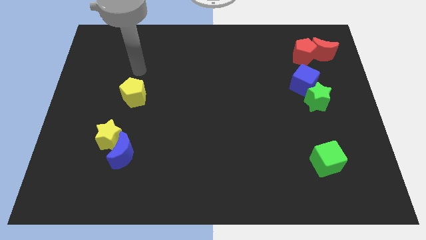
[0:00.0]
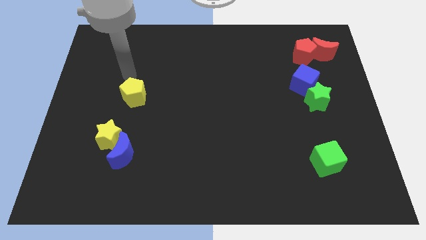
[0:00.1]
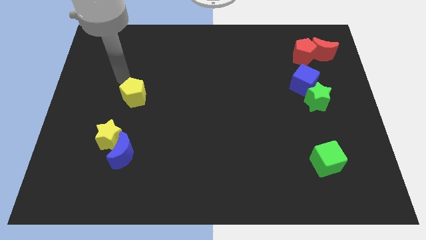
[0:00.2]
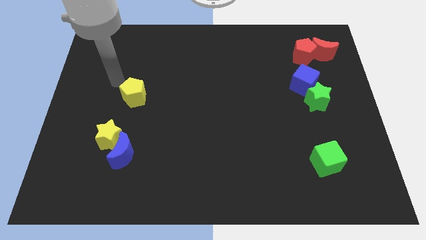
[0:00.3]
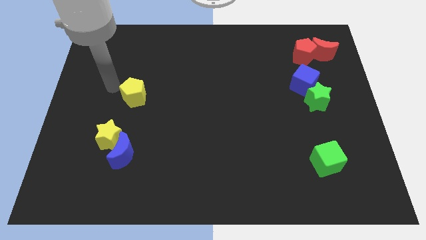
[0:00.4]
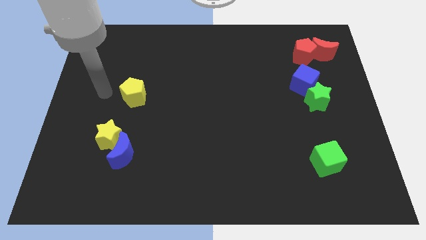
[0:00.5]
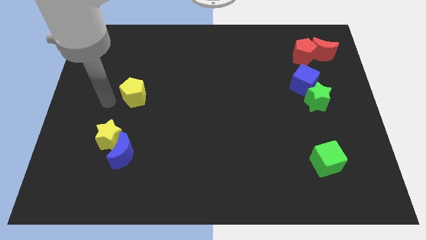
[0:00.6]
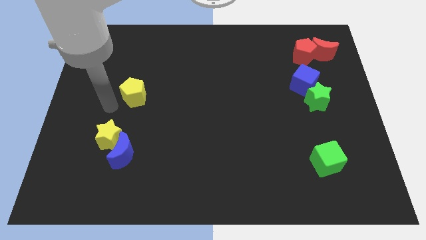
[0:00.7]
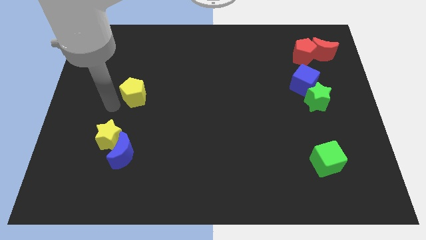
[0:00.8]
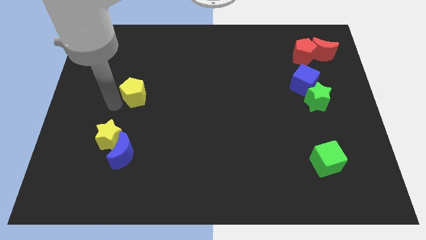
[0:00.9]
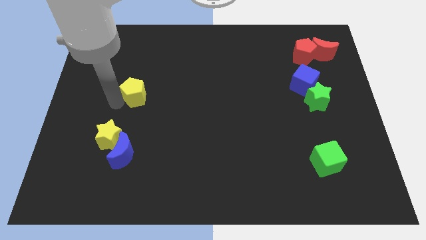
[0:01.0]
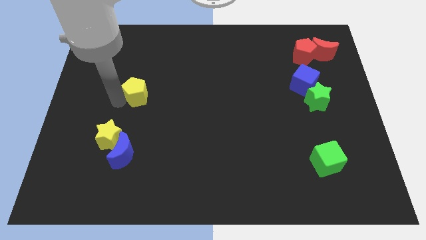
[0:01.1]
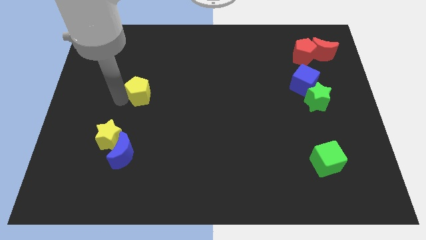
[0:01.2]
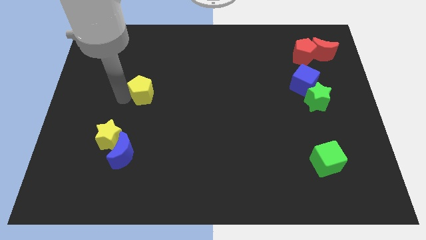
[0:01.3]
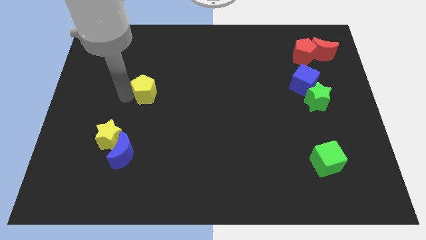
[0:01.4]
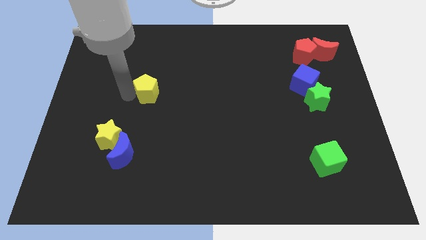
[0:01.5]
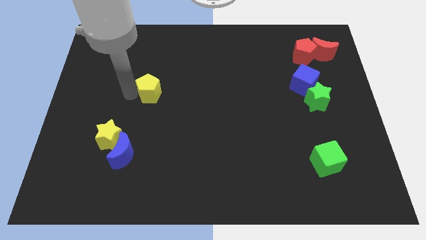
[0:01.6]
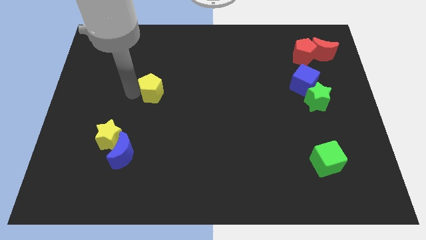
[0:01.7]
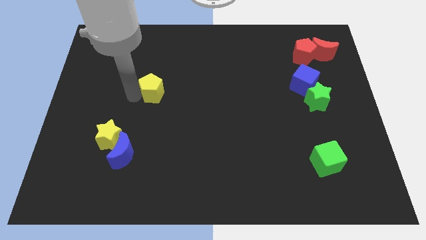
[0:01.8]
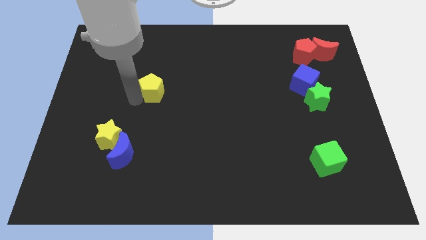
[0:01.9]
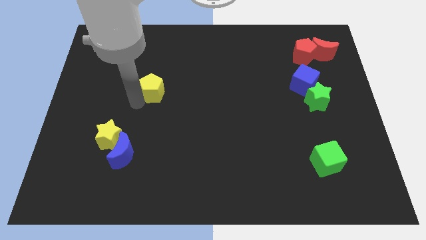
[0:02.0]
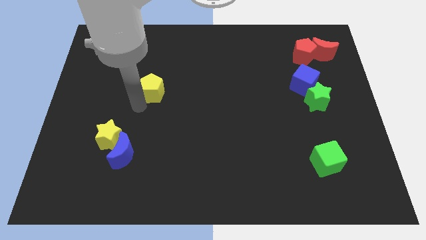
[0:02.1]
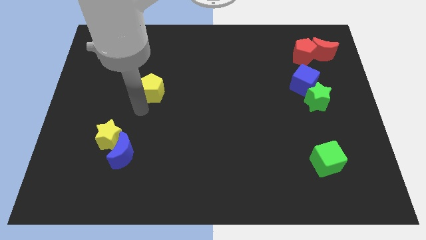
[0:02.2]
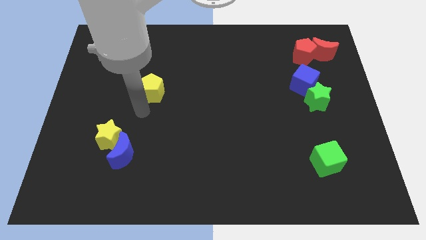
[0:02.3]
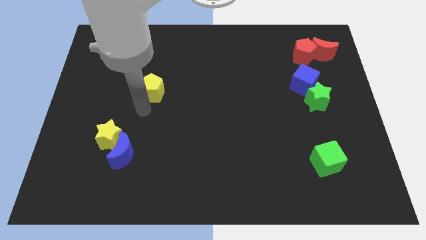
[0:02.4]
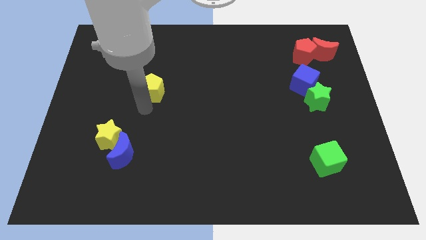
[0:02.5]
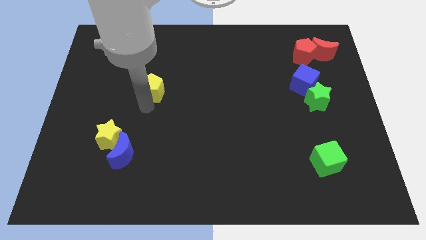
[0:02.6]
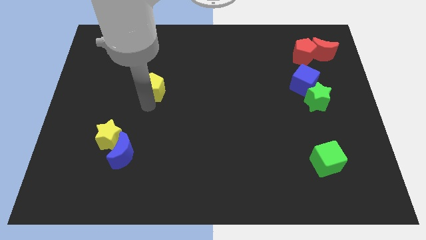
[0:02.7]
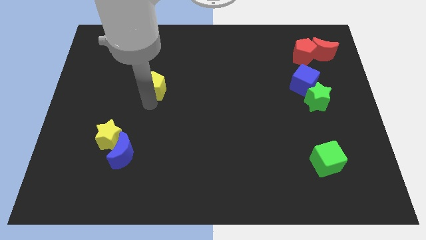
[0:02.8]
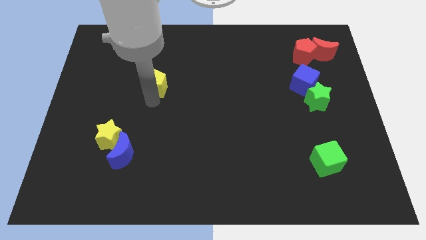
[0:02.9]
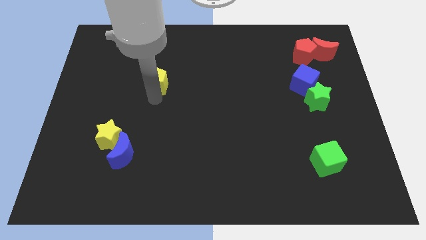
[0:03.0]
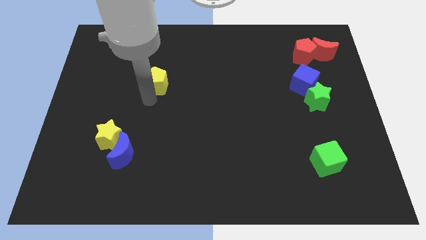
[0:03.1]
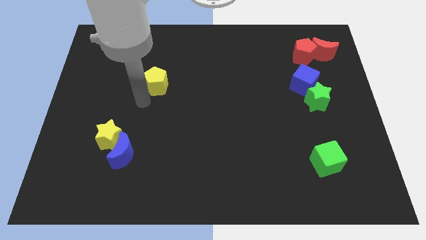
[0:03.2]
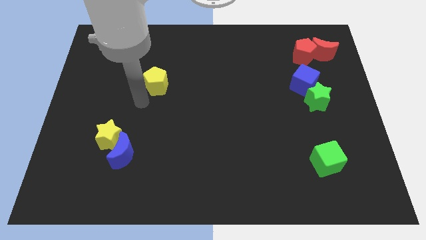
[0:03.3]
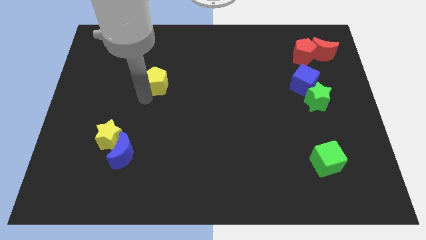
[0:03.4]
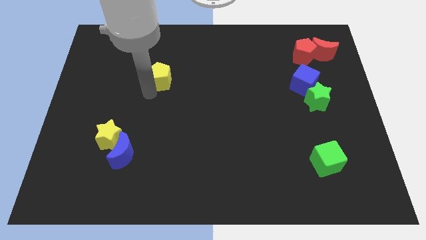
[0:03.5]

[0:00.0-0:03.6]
slide the yellow pentagon upwards and then right somewhat

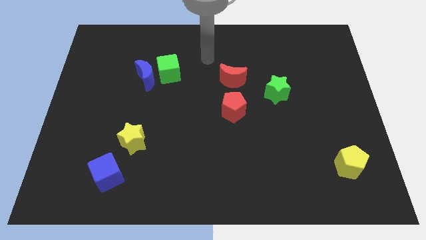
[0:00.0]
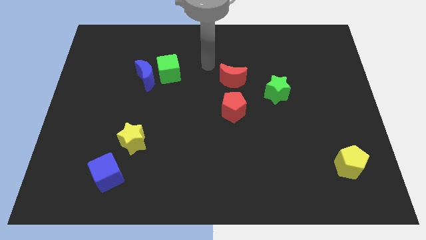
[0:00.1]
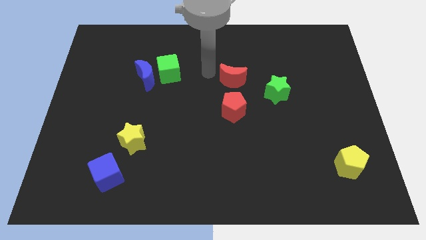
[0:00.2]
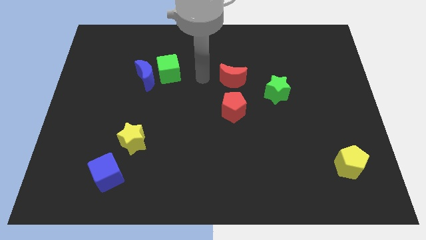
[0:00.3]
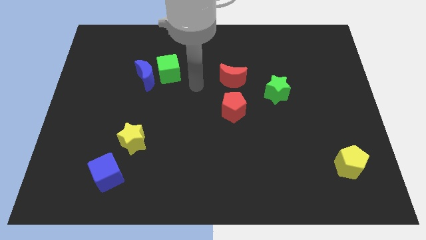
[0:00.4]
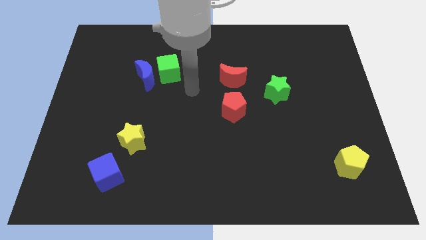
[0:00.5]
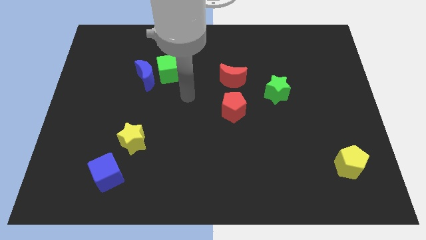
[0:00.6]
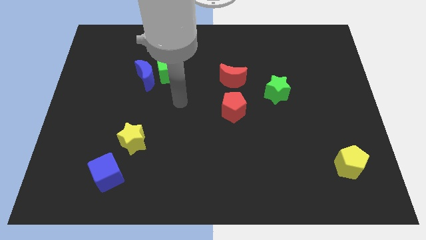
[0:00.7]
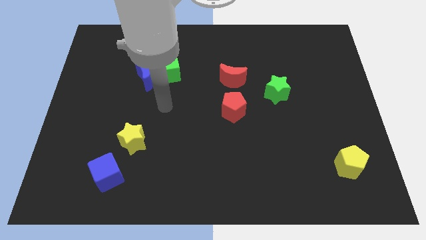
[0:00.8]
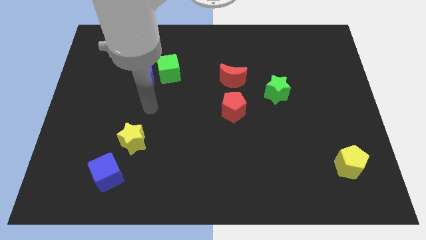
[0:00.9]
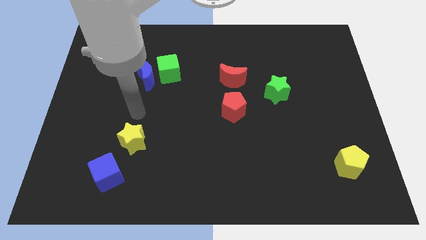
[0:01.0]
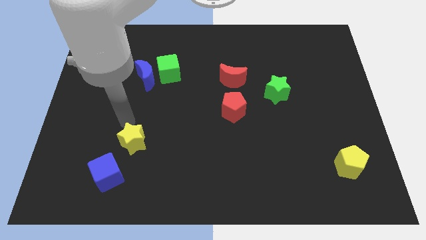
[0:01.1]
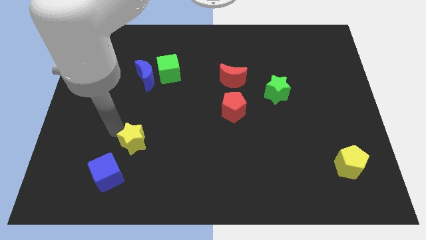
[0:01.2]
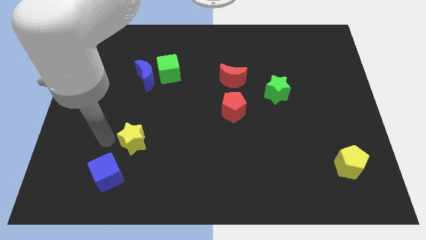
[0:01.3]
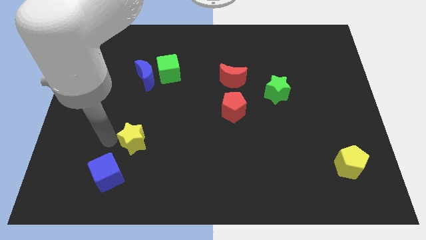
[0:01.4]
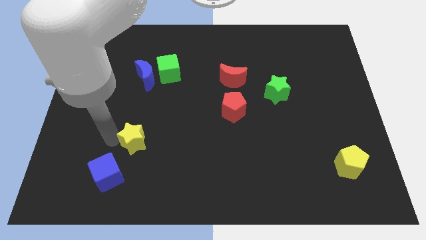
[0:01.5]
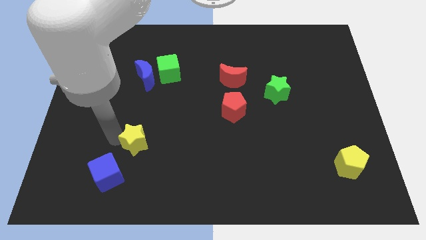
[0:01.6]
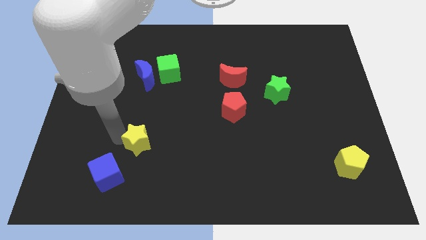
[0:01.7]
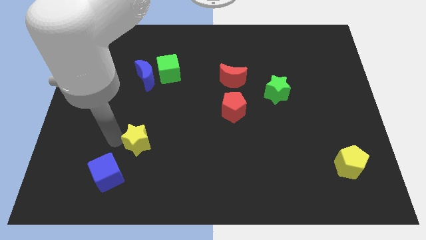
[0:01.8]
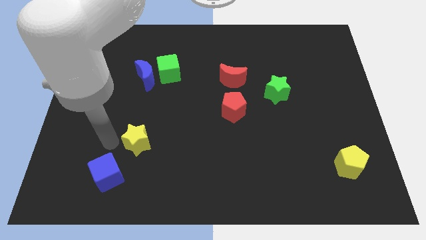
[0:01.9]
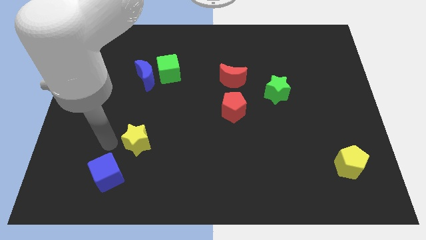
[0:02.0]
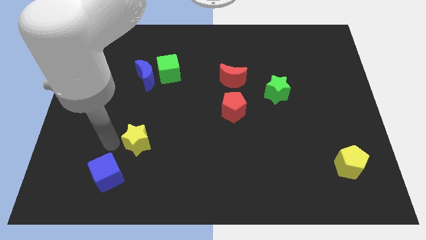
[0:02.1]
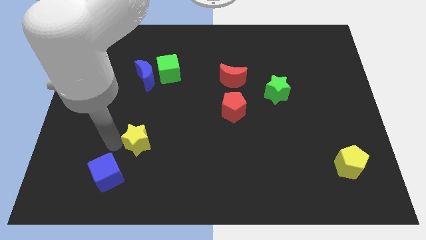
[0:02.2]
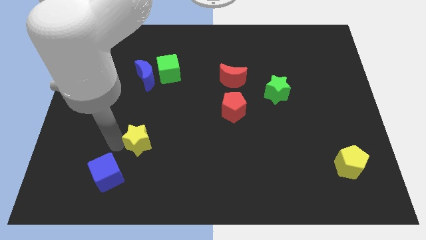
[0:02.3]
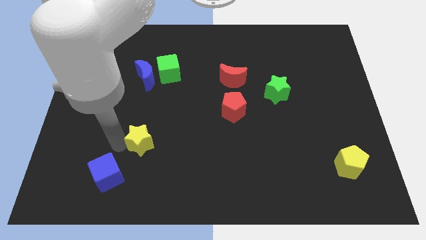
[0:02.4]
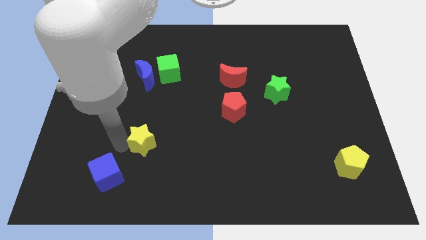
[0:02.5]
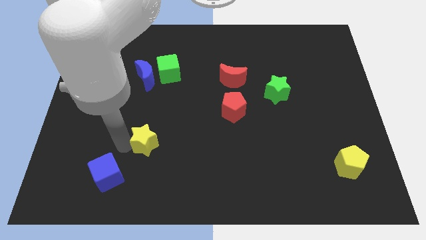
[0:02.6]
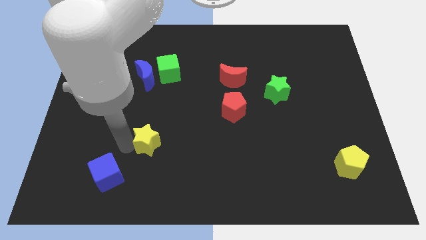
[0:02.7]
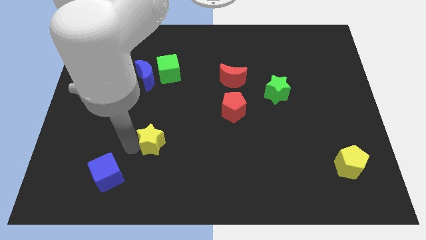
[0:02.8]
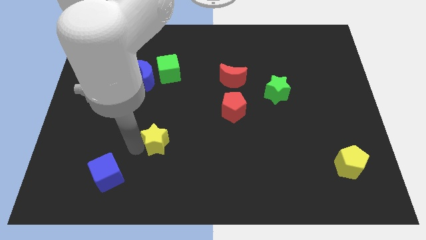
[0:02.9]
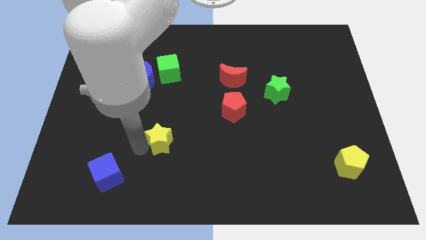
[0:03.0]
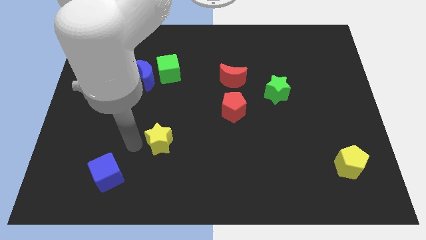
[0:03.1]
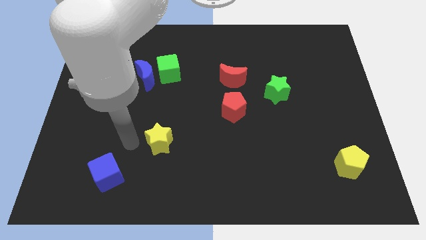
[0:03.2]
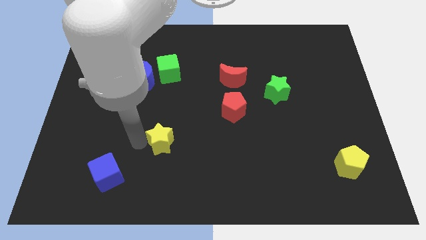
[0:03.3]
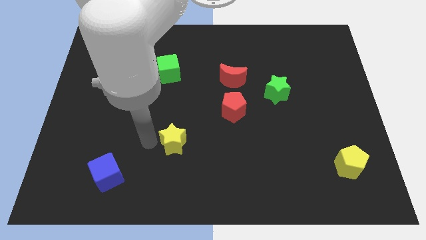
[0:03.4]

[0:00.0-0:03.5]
slide the yellow star slightly to the right

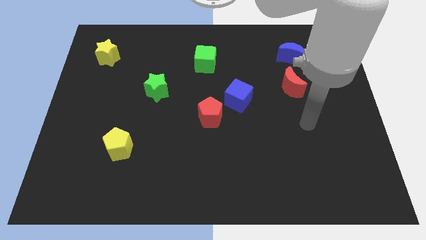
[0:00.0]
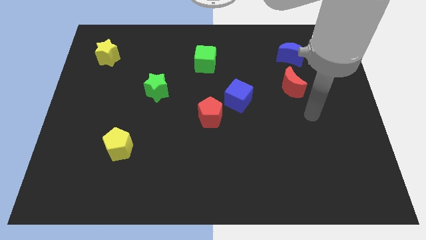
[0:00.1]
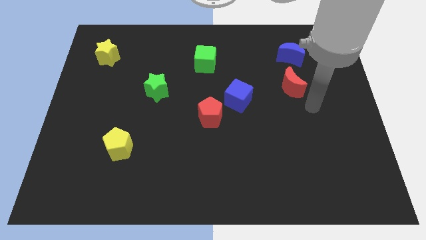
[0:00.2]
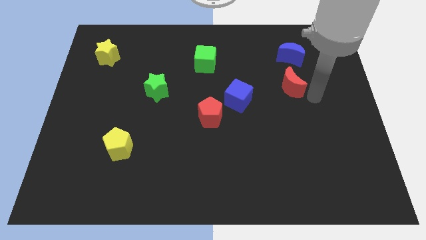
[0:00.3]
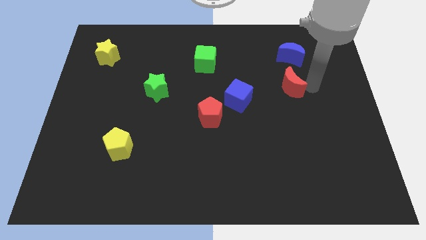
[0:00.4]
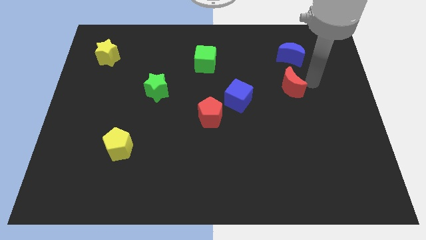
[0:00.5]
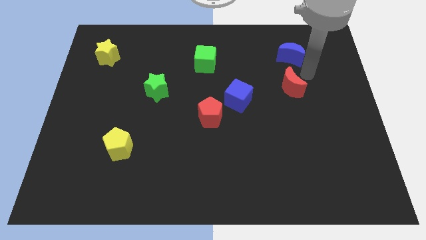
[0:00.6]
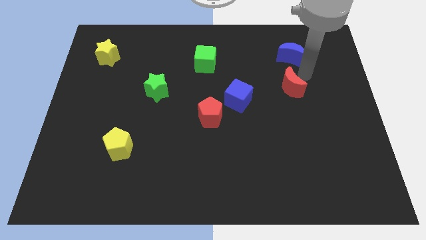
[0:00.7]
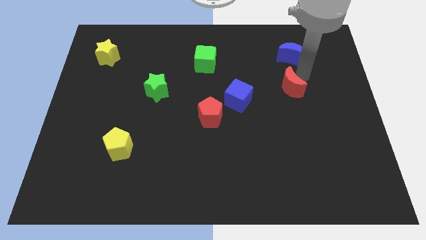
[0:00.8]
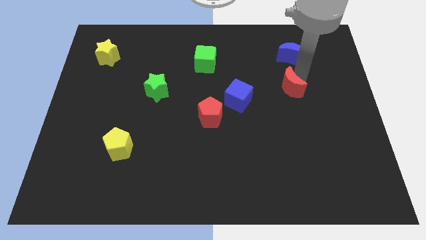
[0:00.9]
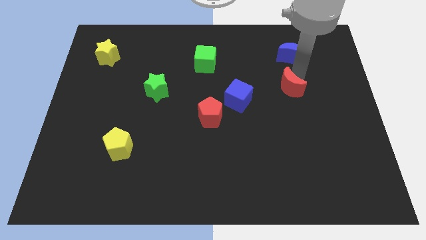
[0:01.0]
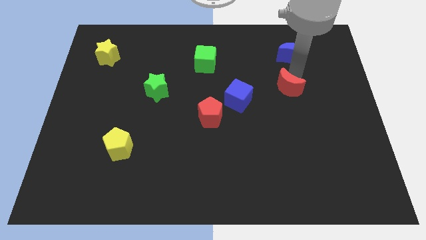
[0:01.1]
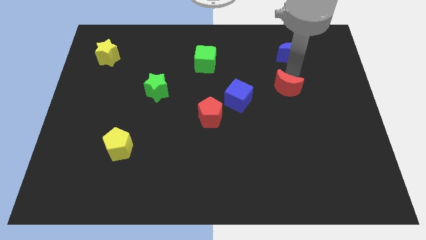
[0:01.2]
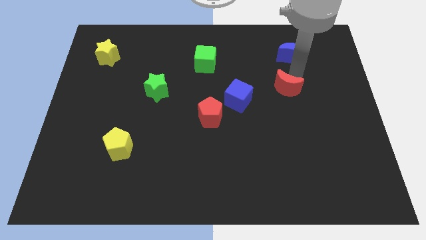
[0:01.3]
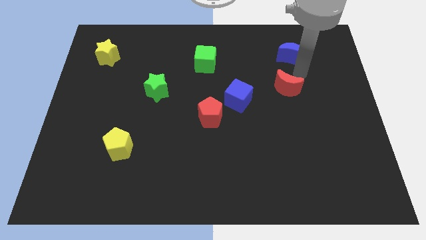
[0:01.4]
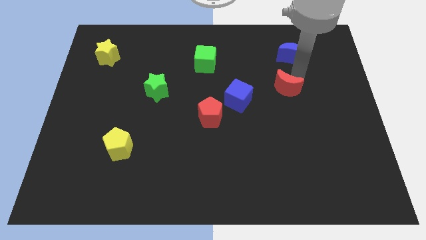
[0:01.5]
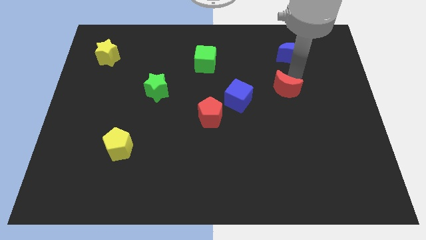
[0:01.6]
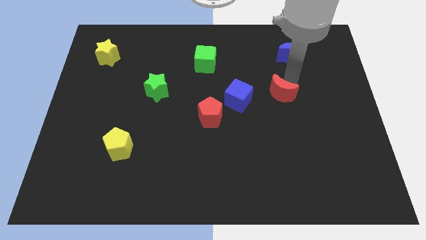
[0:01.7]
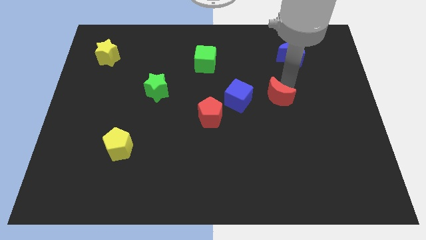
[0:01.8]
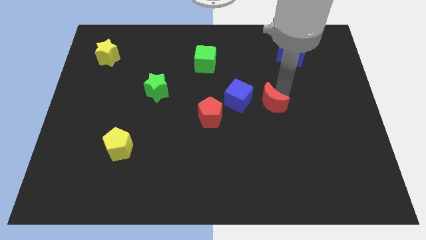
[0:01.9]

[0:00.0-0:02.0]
push the red moon somewhat down and then left
